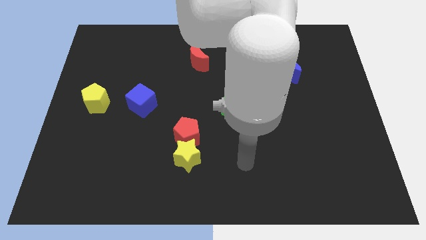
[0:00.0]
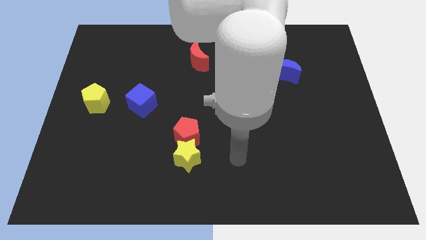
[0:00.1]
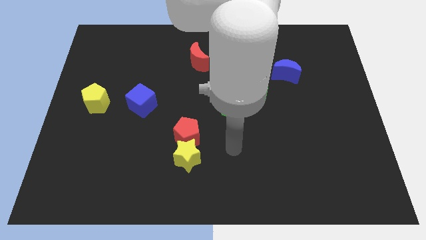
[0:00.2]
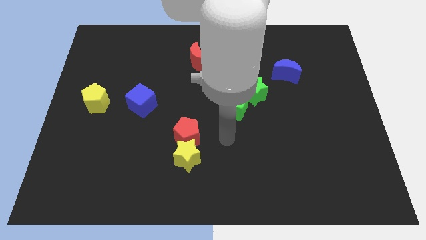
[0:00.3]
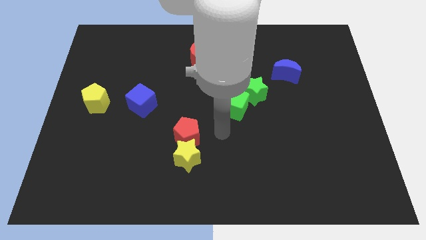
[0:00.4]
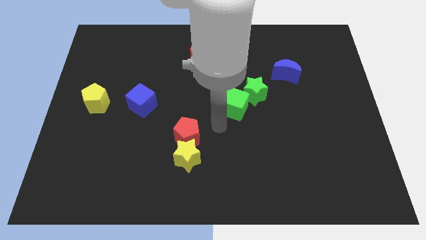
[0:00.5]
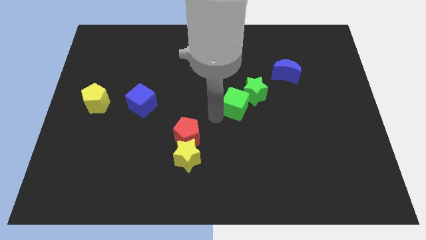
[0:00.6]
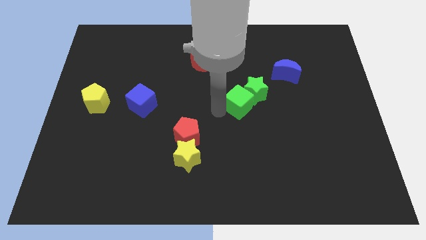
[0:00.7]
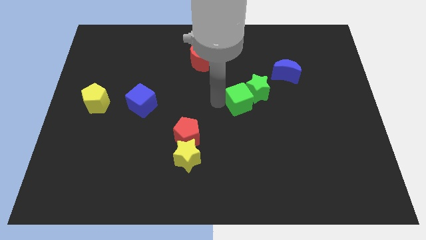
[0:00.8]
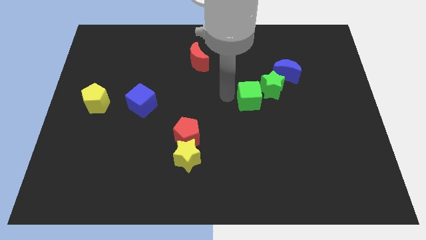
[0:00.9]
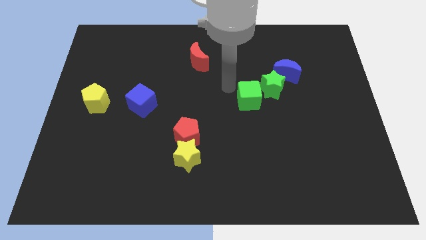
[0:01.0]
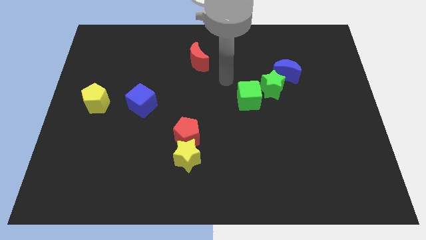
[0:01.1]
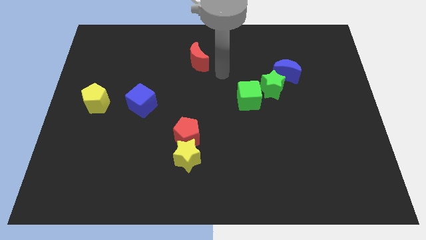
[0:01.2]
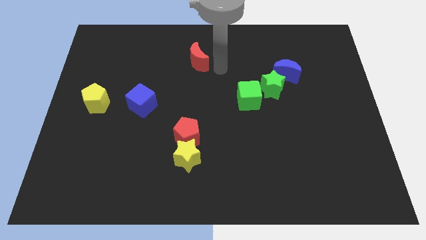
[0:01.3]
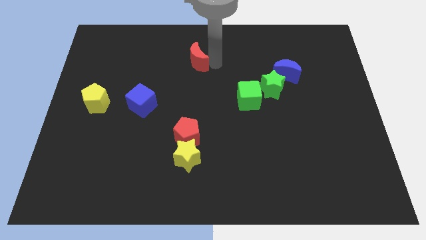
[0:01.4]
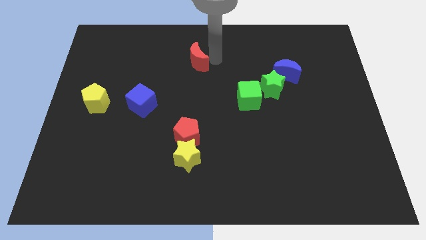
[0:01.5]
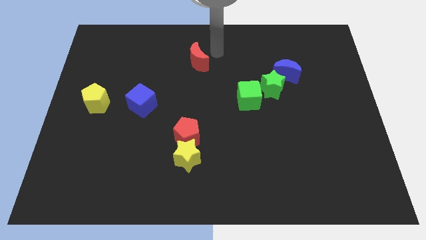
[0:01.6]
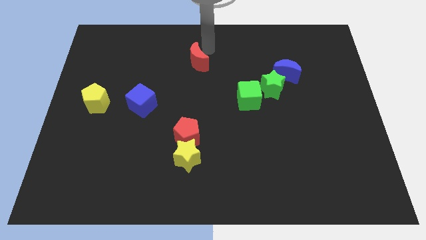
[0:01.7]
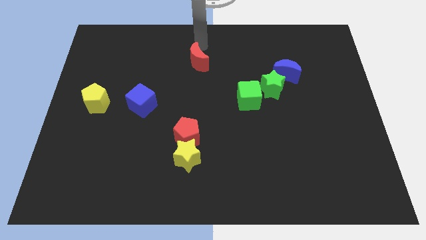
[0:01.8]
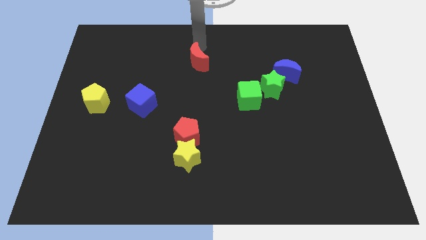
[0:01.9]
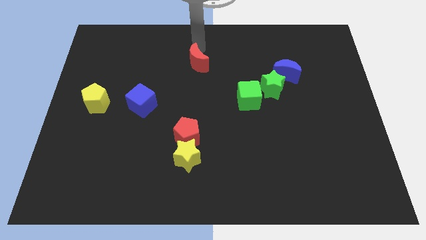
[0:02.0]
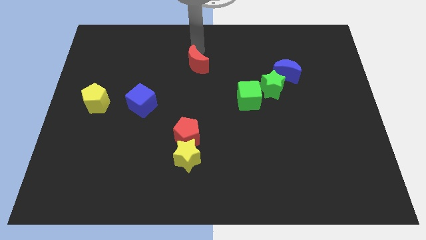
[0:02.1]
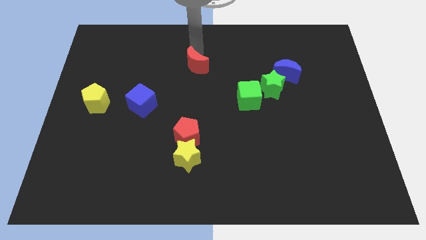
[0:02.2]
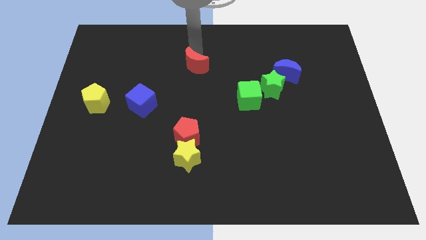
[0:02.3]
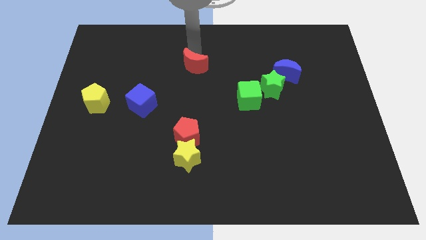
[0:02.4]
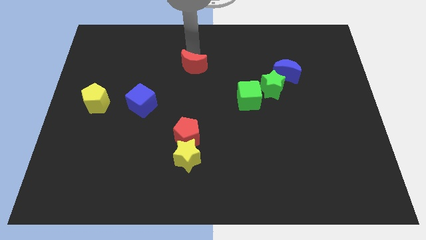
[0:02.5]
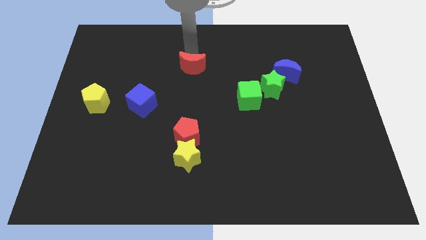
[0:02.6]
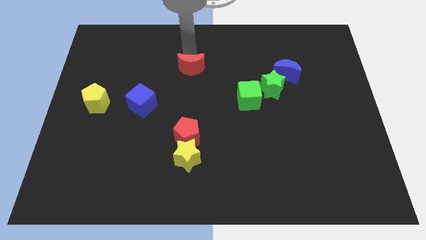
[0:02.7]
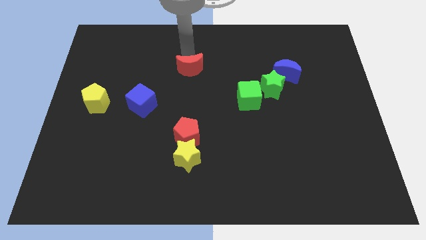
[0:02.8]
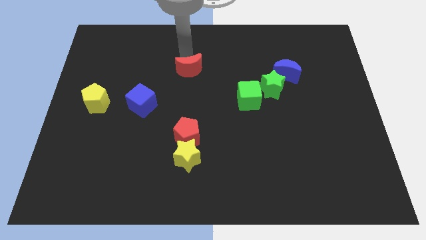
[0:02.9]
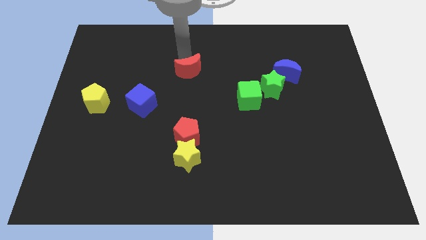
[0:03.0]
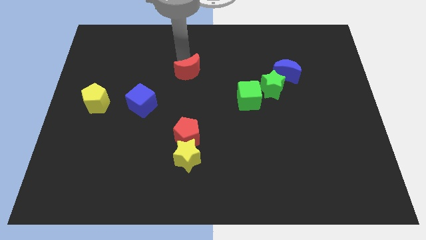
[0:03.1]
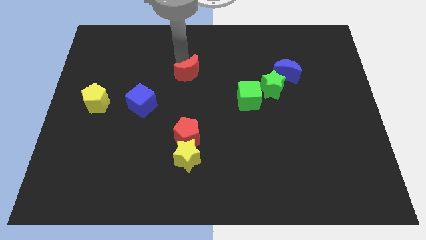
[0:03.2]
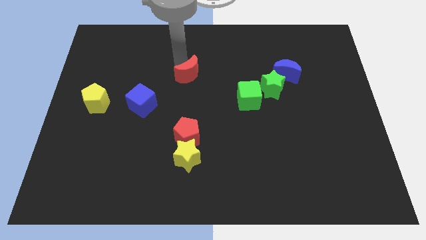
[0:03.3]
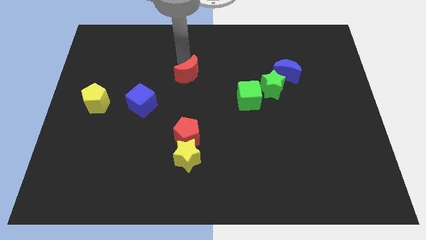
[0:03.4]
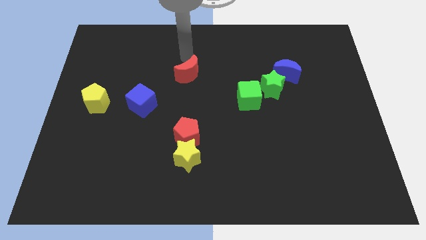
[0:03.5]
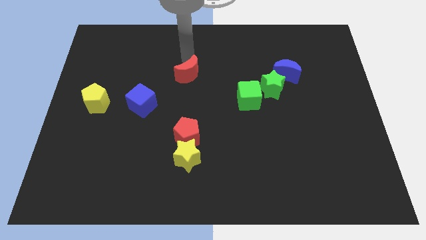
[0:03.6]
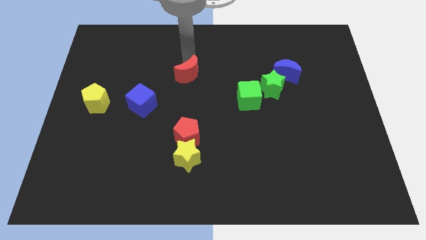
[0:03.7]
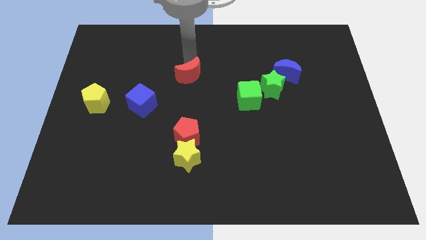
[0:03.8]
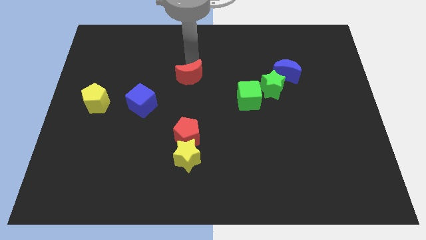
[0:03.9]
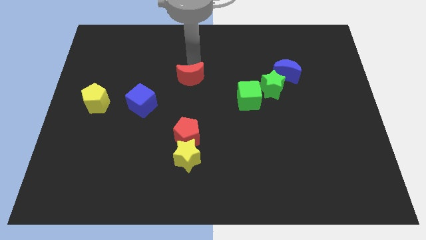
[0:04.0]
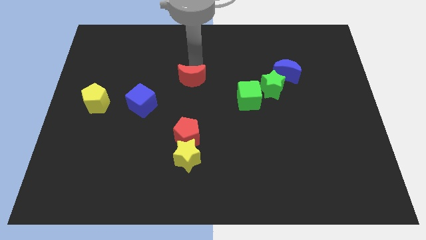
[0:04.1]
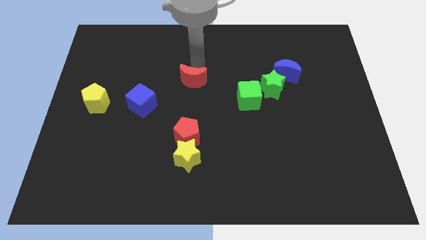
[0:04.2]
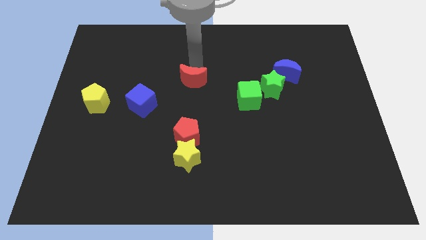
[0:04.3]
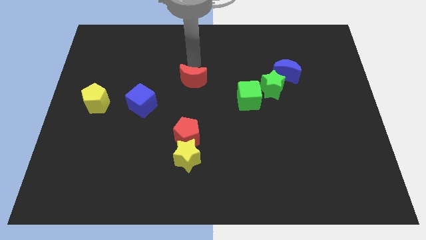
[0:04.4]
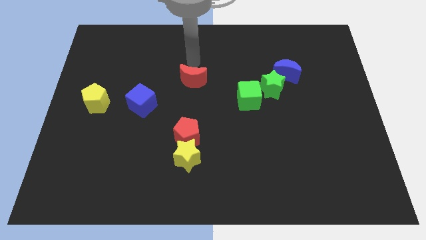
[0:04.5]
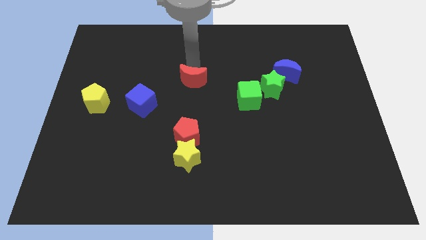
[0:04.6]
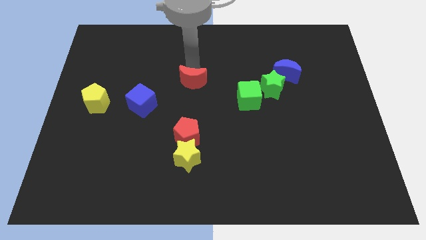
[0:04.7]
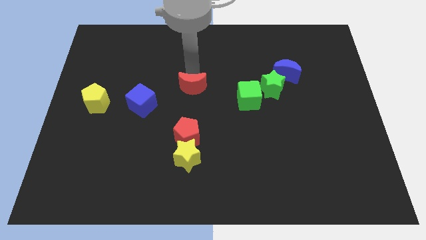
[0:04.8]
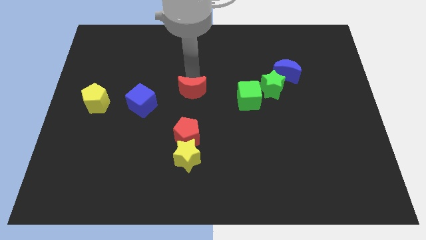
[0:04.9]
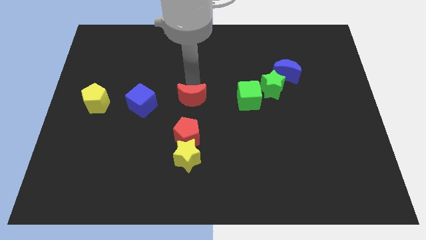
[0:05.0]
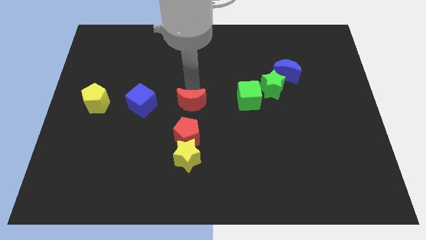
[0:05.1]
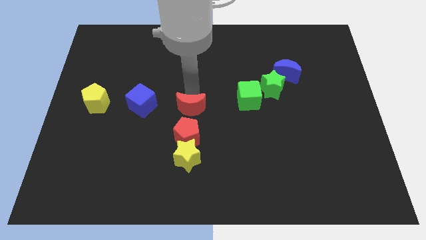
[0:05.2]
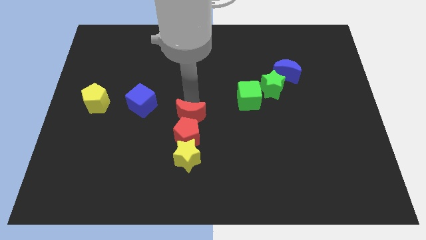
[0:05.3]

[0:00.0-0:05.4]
put the red moon towards the red pentagon

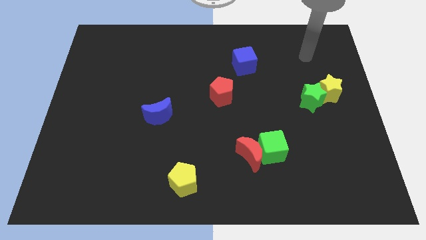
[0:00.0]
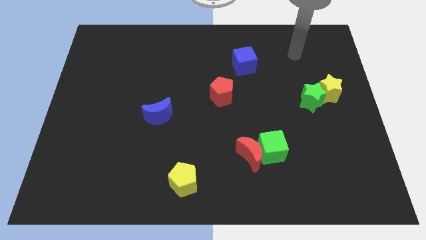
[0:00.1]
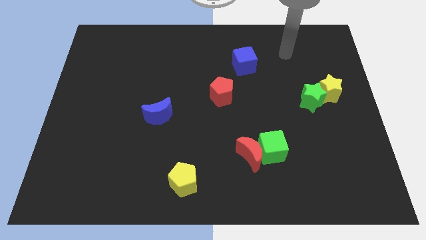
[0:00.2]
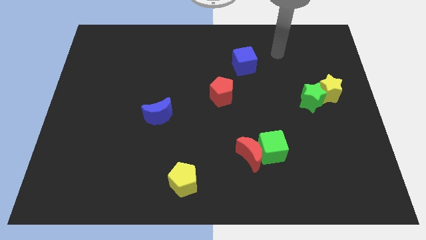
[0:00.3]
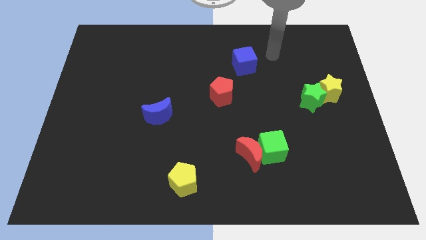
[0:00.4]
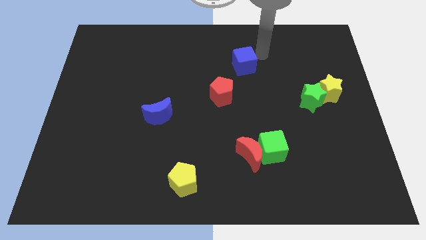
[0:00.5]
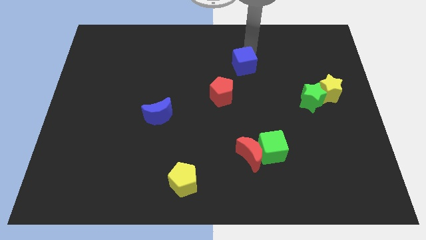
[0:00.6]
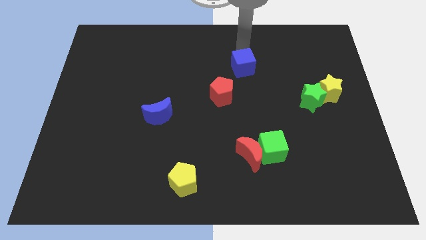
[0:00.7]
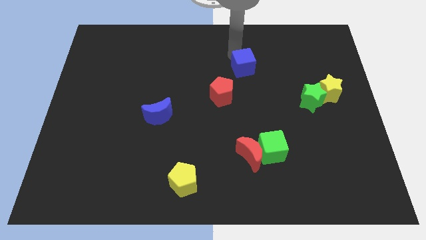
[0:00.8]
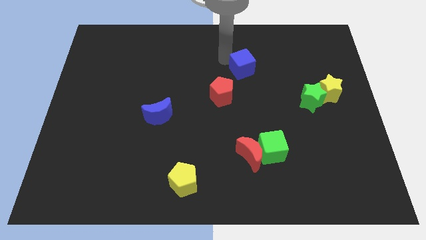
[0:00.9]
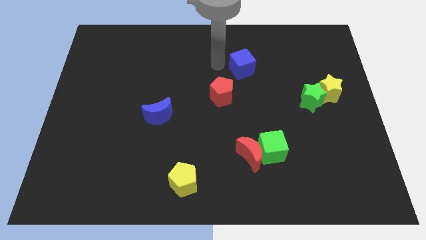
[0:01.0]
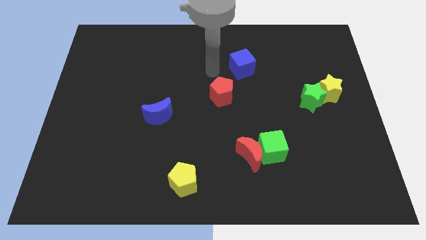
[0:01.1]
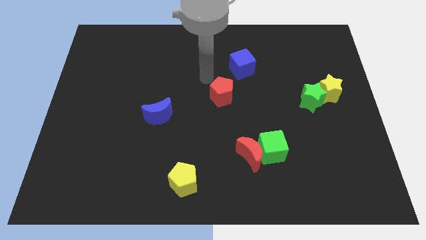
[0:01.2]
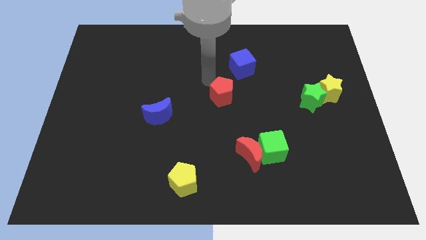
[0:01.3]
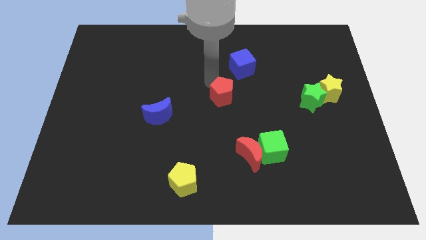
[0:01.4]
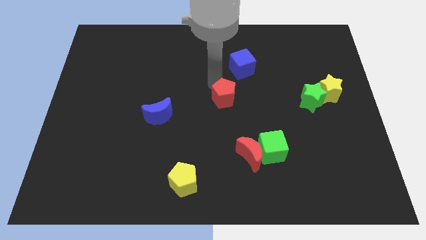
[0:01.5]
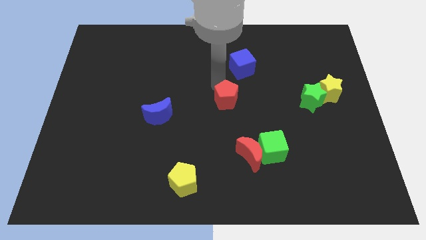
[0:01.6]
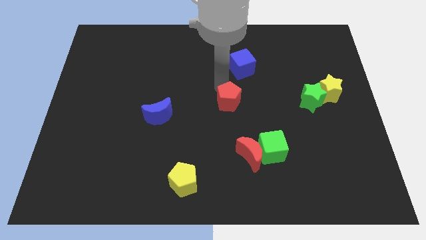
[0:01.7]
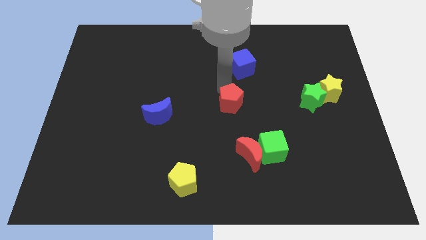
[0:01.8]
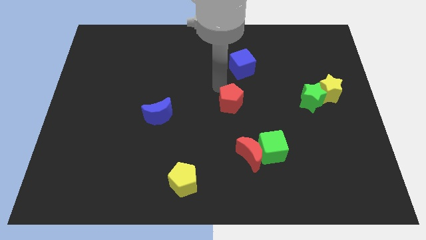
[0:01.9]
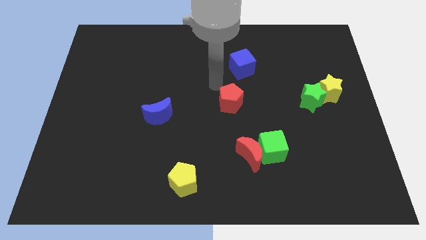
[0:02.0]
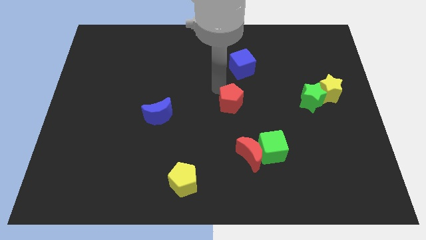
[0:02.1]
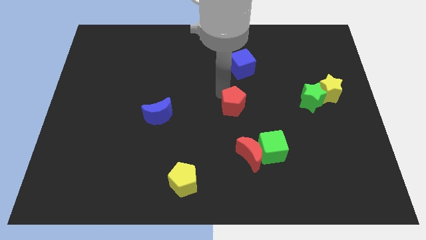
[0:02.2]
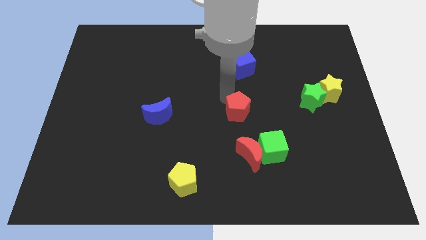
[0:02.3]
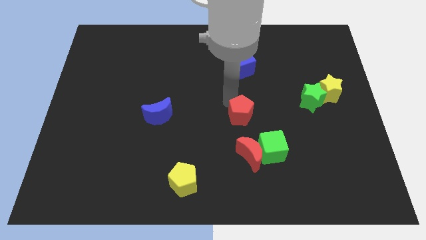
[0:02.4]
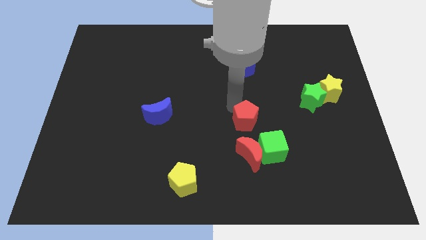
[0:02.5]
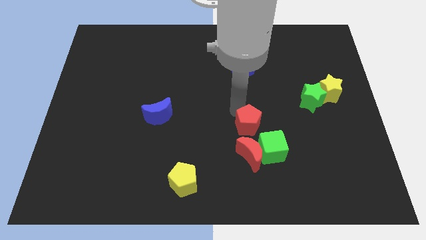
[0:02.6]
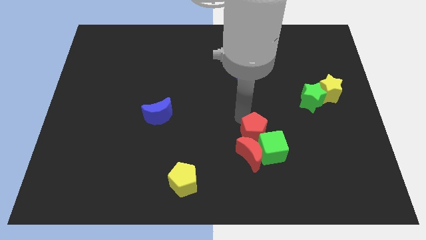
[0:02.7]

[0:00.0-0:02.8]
push the red pentagon towards the green cube
